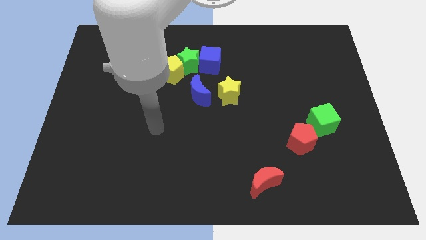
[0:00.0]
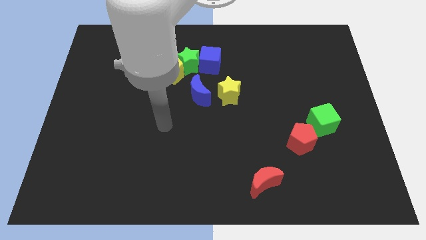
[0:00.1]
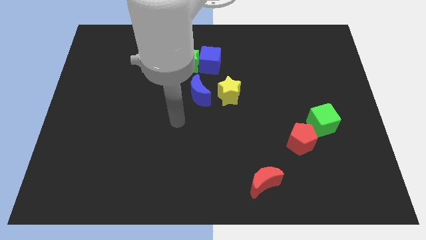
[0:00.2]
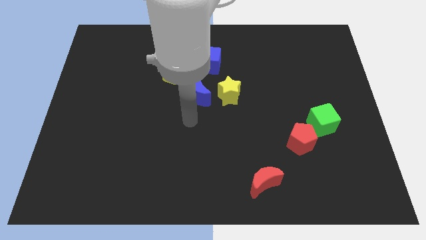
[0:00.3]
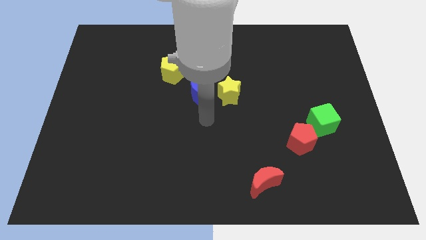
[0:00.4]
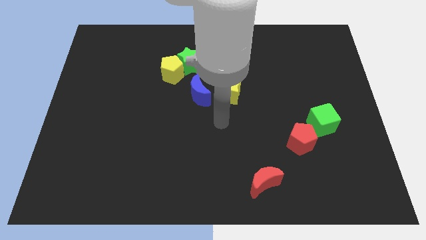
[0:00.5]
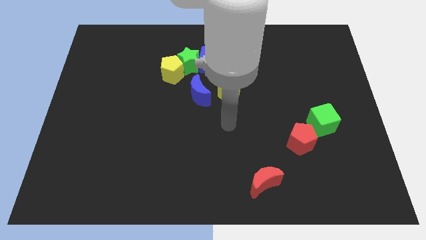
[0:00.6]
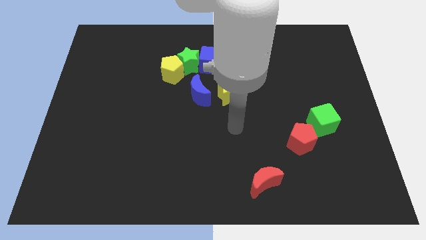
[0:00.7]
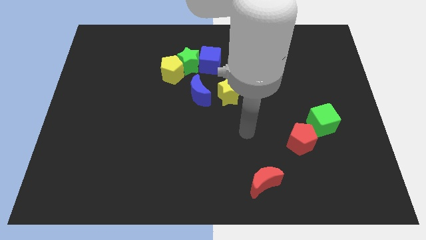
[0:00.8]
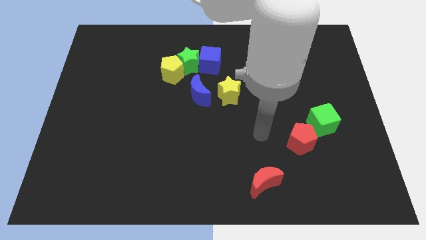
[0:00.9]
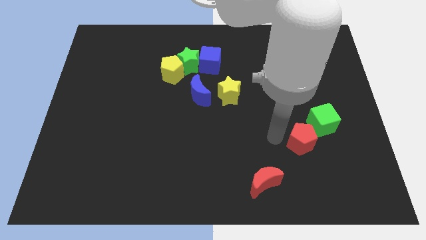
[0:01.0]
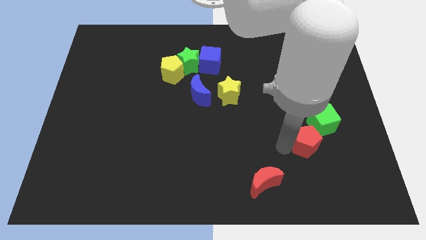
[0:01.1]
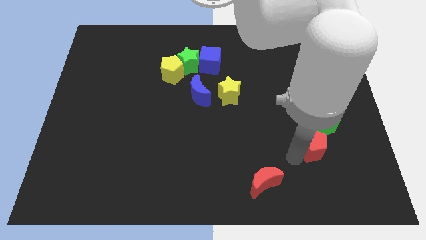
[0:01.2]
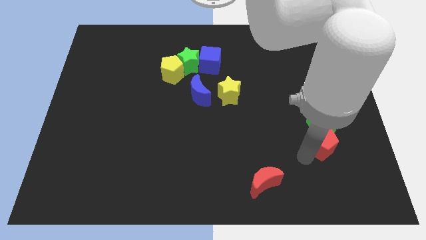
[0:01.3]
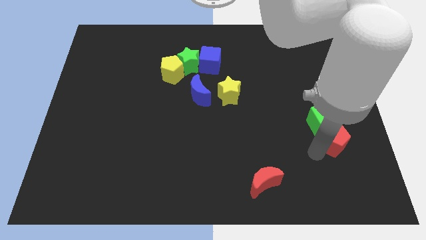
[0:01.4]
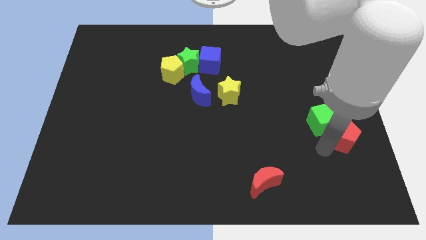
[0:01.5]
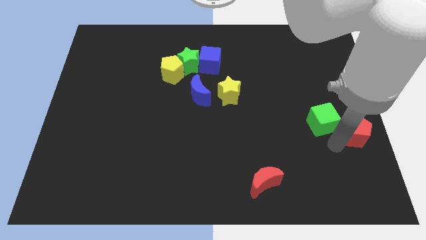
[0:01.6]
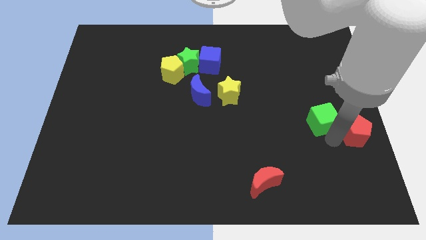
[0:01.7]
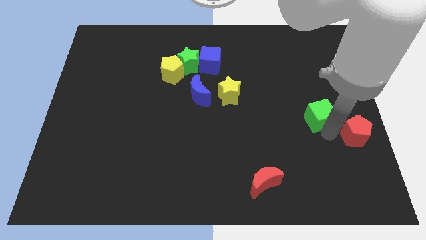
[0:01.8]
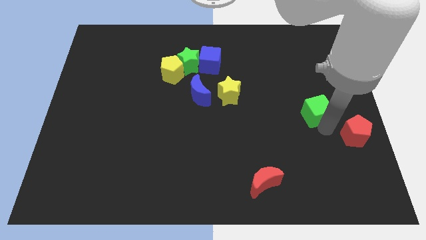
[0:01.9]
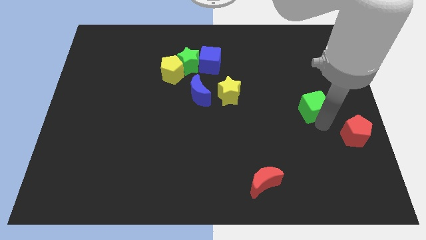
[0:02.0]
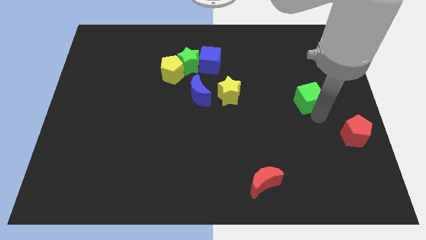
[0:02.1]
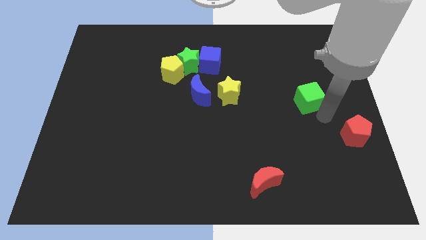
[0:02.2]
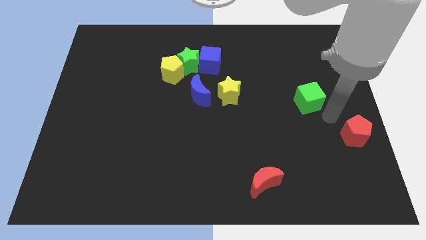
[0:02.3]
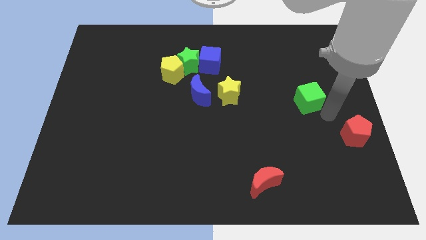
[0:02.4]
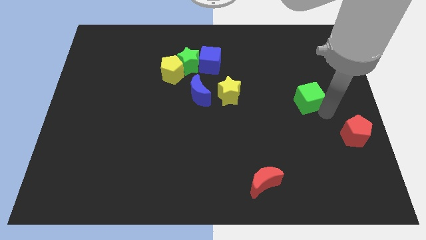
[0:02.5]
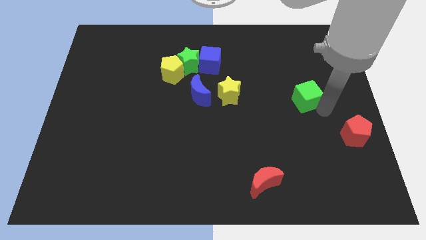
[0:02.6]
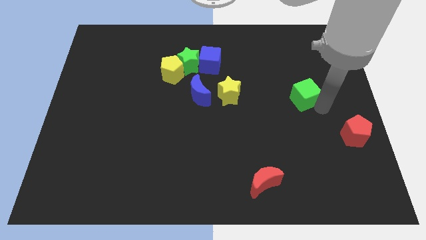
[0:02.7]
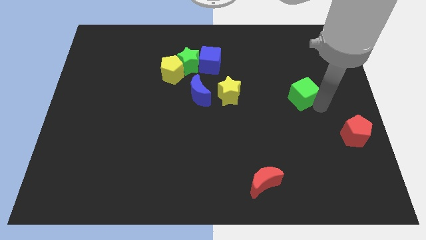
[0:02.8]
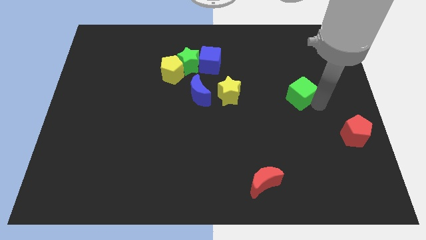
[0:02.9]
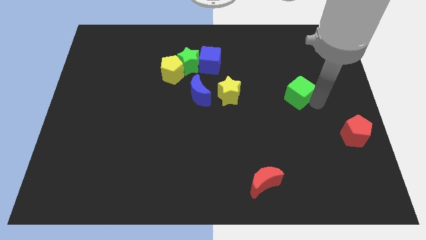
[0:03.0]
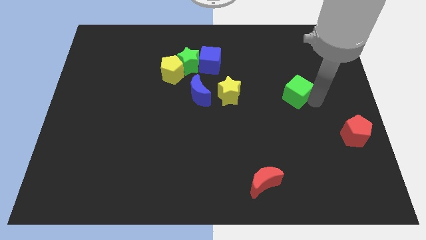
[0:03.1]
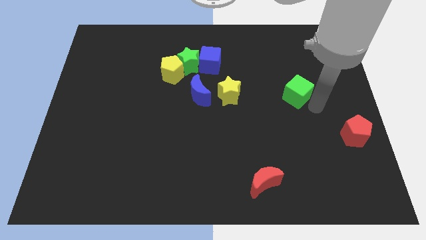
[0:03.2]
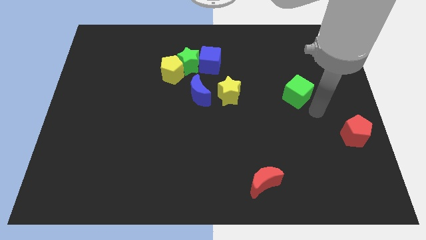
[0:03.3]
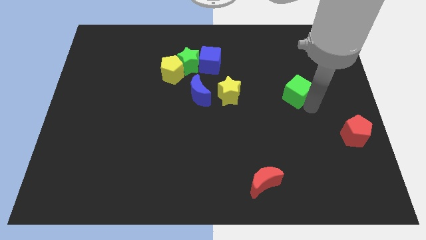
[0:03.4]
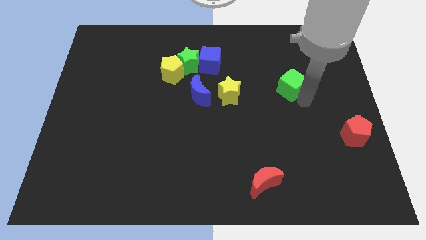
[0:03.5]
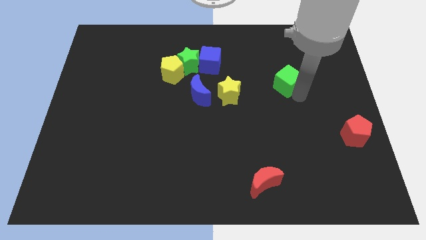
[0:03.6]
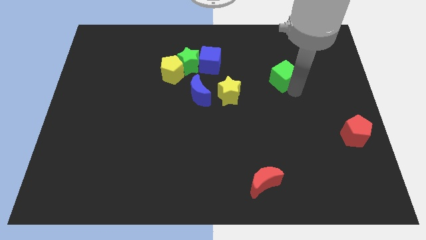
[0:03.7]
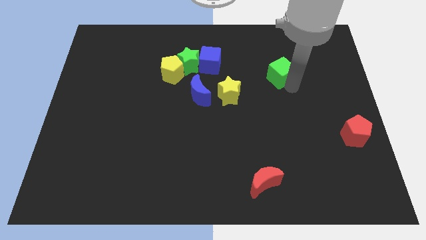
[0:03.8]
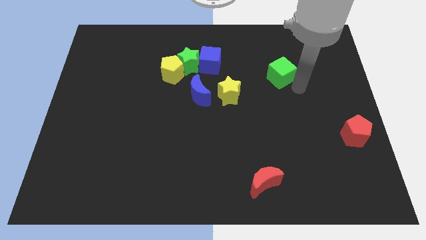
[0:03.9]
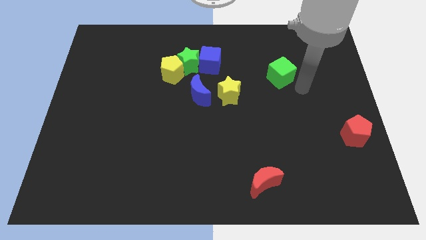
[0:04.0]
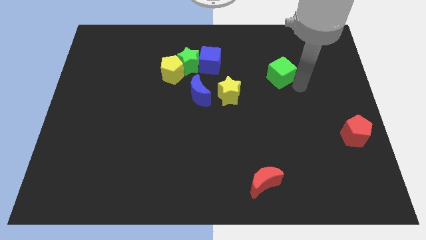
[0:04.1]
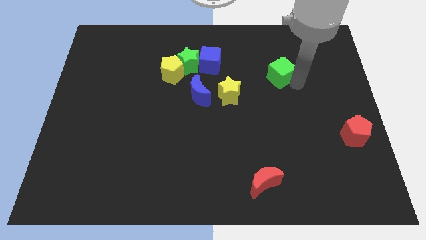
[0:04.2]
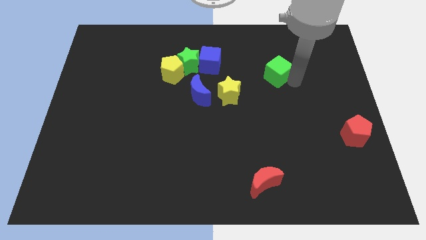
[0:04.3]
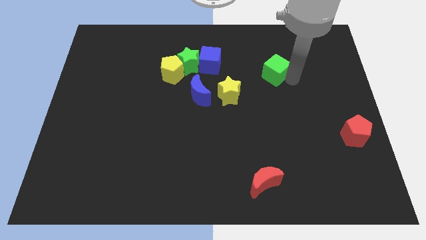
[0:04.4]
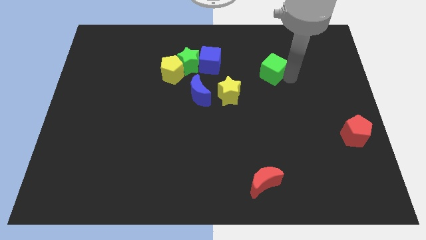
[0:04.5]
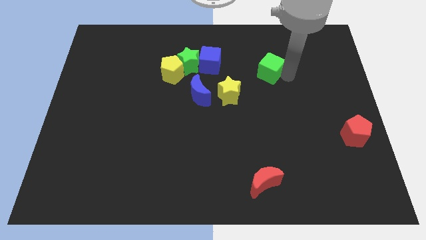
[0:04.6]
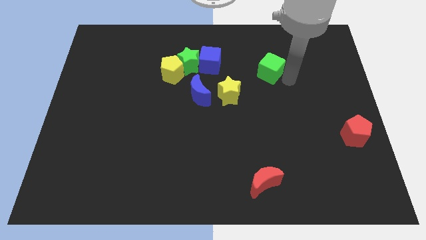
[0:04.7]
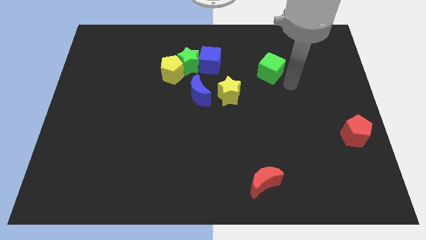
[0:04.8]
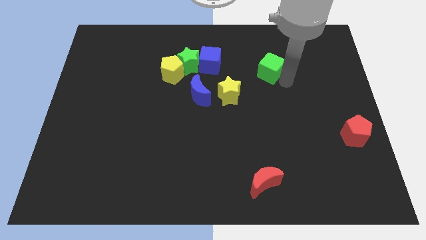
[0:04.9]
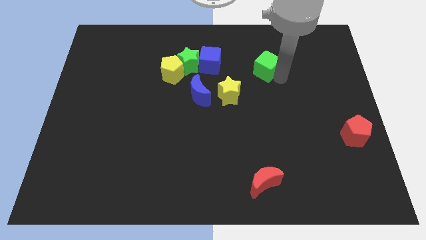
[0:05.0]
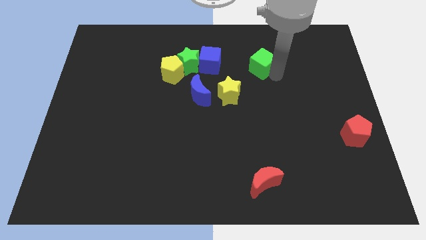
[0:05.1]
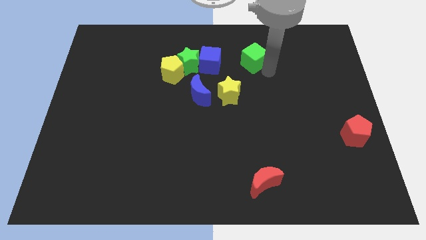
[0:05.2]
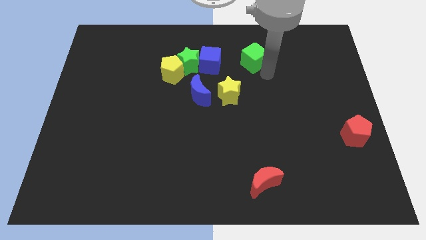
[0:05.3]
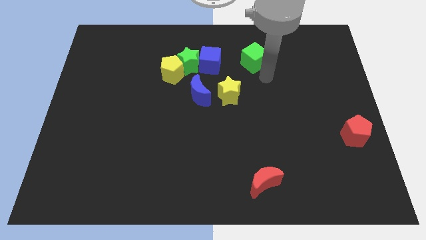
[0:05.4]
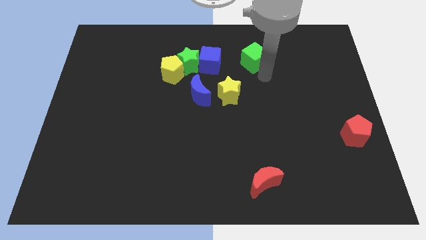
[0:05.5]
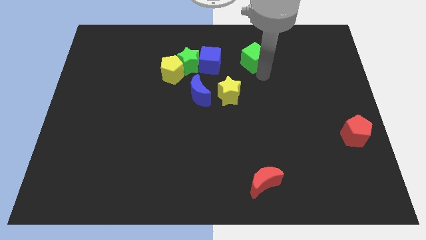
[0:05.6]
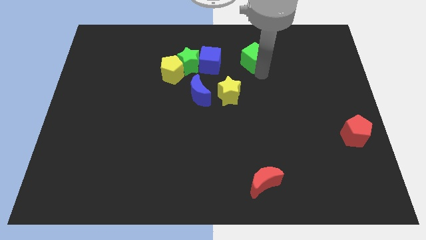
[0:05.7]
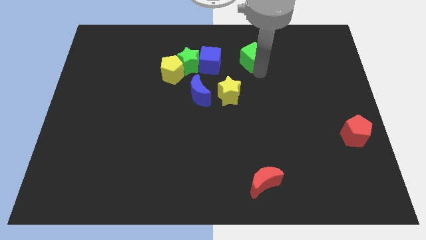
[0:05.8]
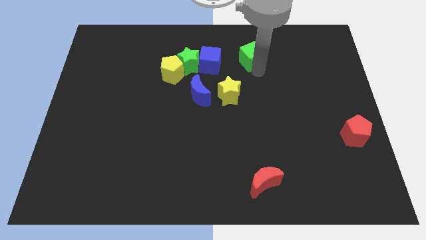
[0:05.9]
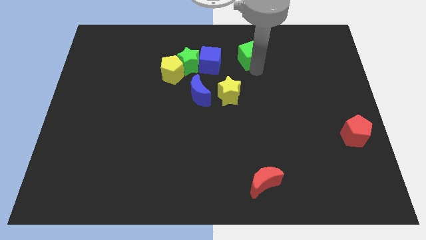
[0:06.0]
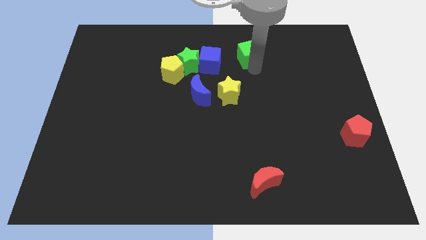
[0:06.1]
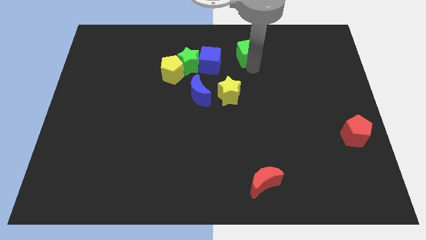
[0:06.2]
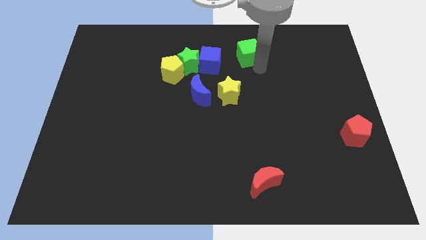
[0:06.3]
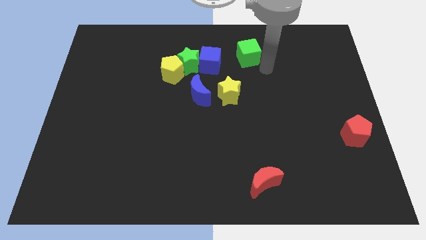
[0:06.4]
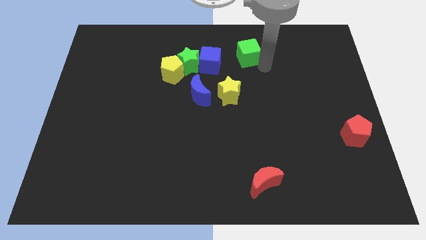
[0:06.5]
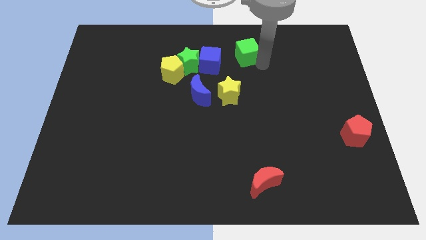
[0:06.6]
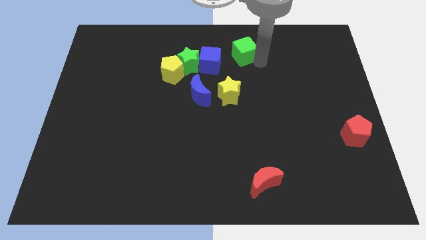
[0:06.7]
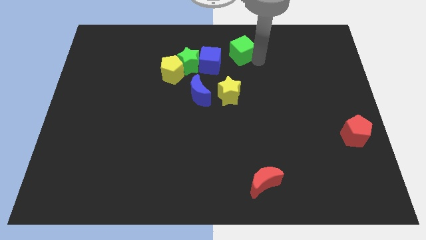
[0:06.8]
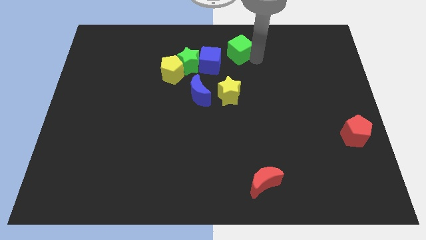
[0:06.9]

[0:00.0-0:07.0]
move the green cube to the towards your base
